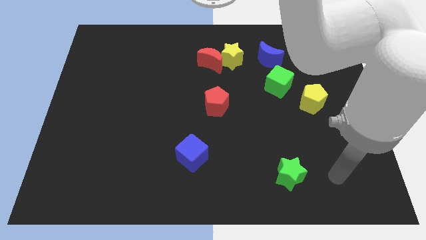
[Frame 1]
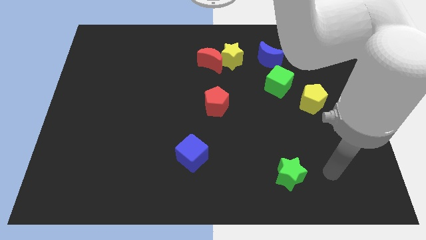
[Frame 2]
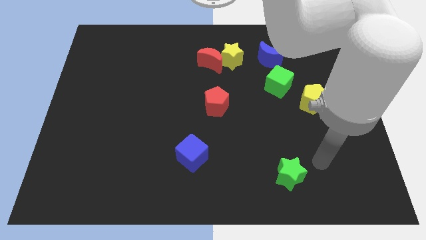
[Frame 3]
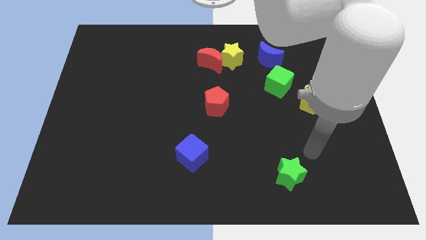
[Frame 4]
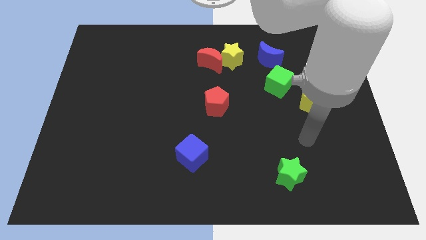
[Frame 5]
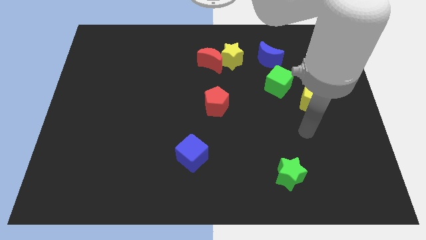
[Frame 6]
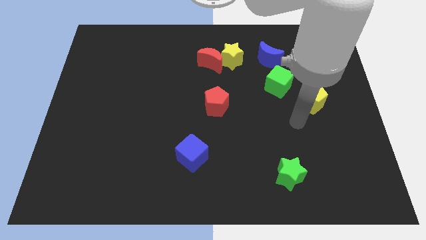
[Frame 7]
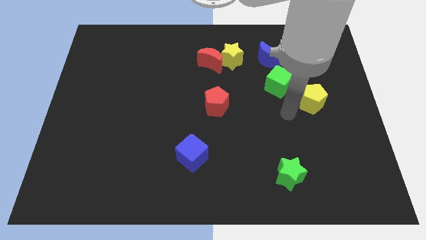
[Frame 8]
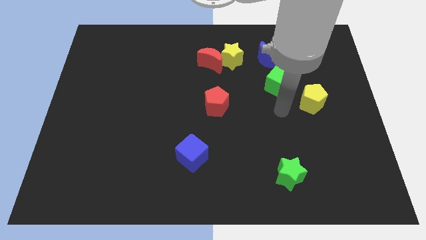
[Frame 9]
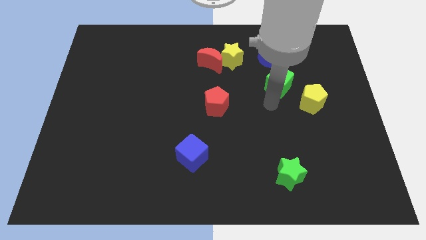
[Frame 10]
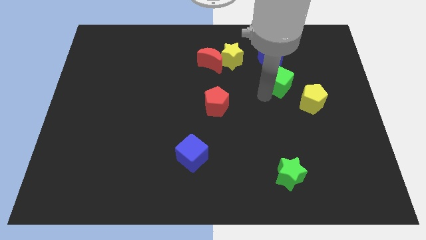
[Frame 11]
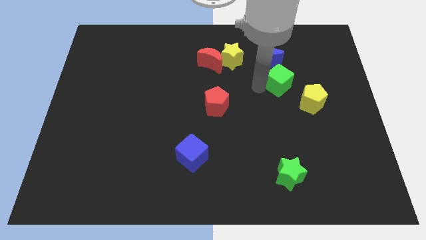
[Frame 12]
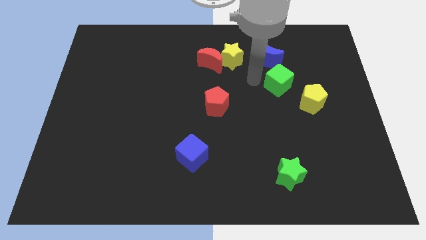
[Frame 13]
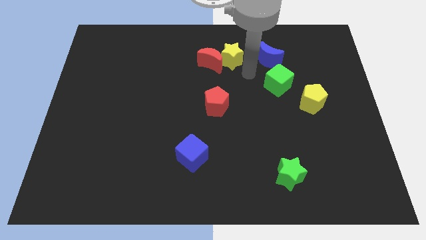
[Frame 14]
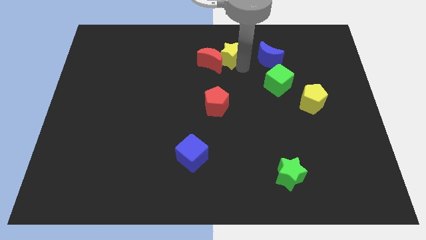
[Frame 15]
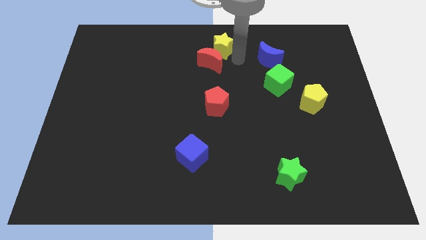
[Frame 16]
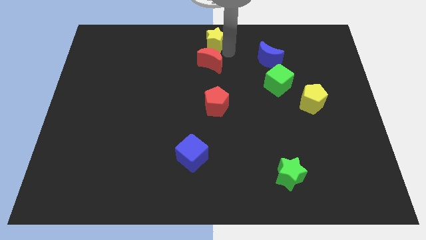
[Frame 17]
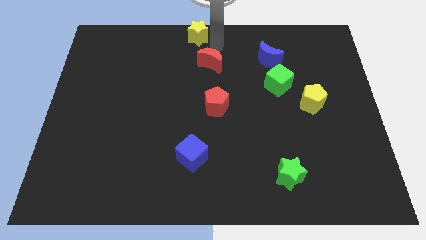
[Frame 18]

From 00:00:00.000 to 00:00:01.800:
move the red moon away from the yellow star

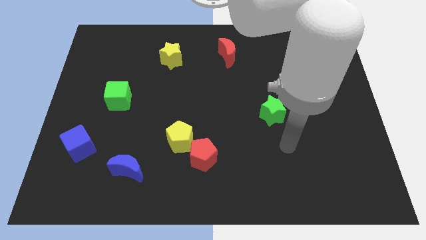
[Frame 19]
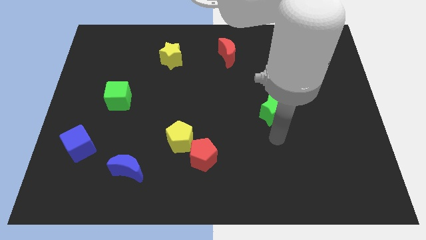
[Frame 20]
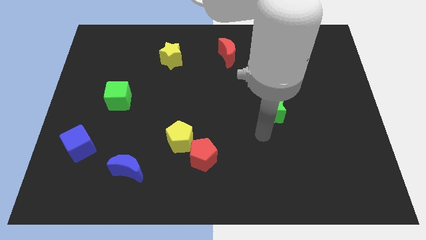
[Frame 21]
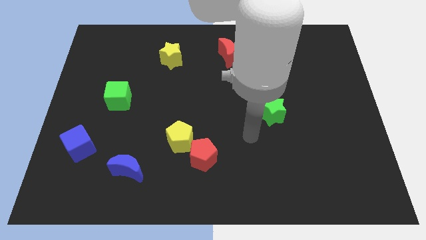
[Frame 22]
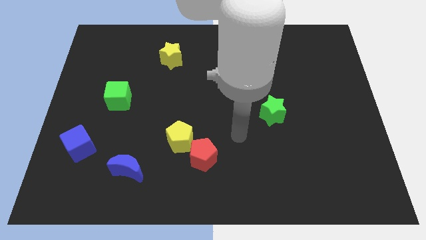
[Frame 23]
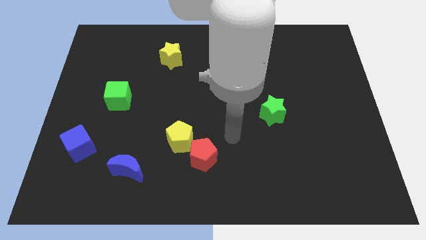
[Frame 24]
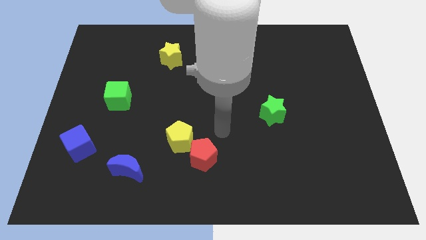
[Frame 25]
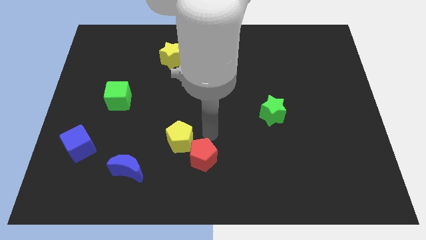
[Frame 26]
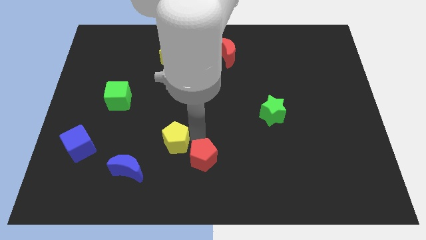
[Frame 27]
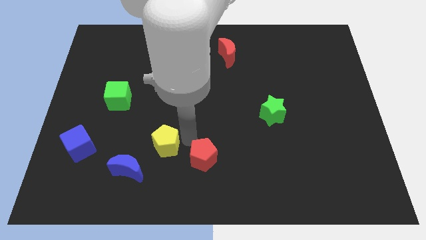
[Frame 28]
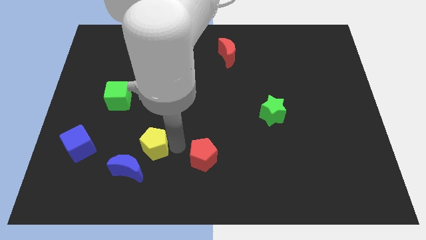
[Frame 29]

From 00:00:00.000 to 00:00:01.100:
pull the red pentagon apart from the yellow pentagon

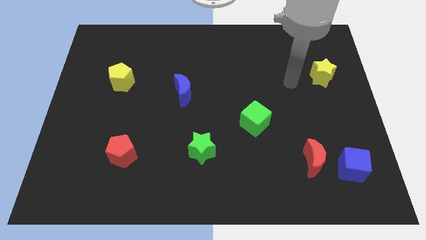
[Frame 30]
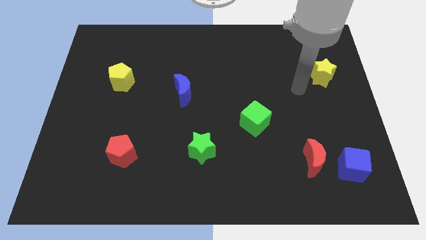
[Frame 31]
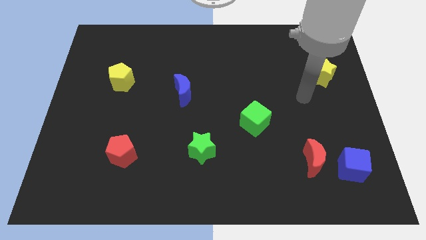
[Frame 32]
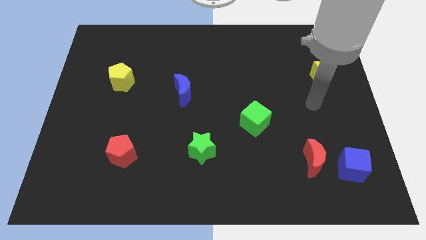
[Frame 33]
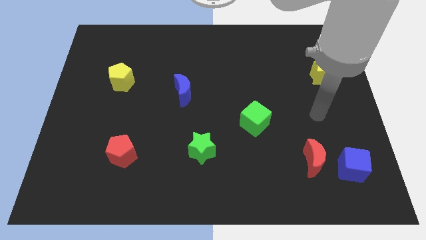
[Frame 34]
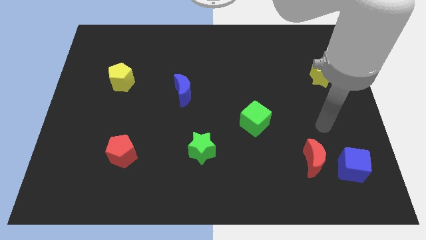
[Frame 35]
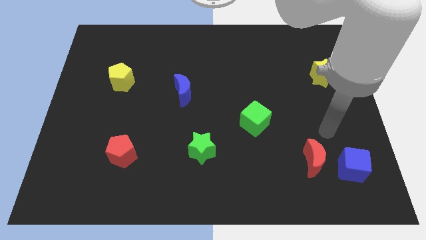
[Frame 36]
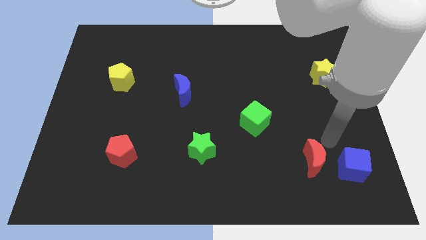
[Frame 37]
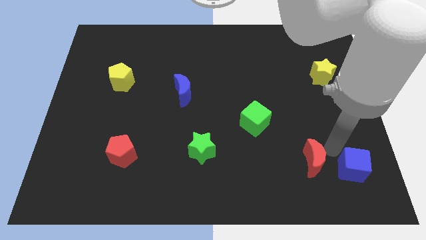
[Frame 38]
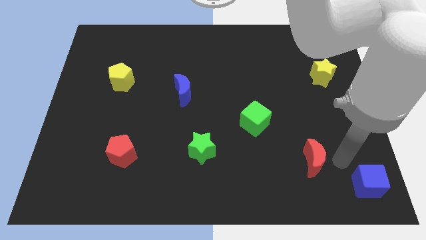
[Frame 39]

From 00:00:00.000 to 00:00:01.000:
pull the red moon apart from the blue cube

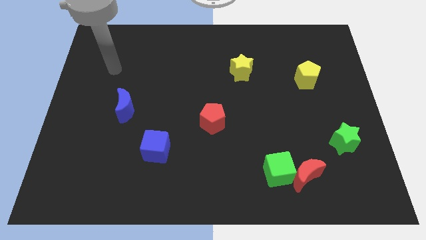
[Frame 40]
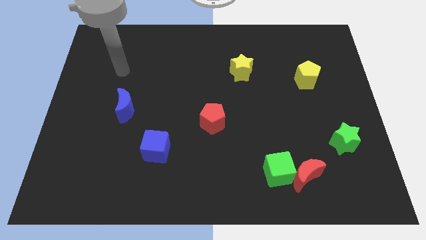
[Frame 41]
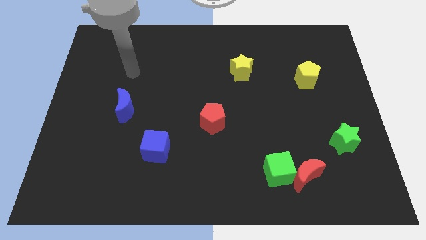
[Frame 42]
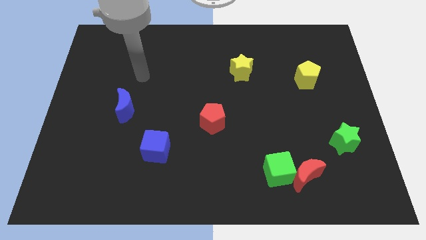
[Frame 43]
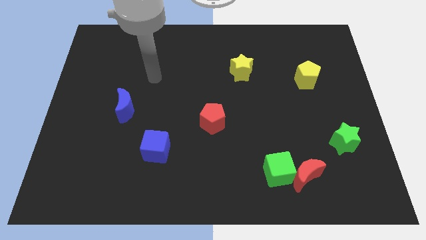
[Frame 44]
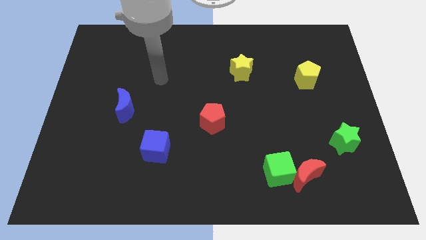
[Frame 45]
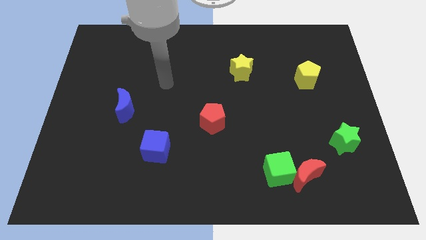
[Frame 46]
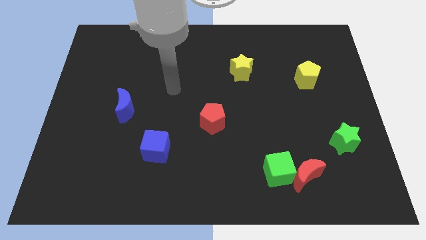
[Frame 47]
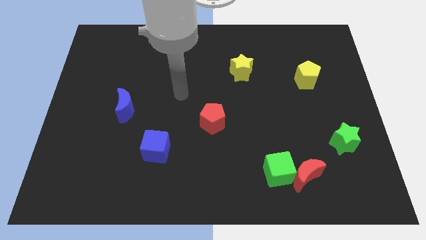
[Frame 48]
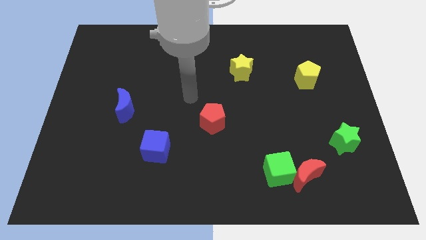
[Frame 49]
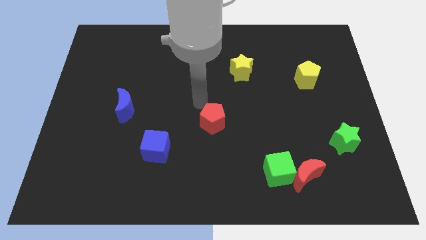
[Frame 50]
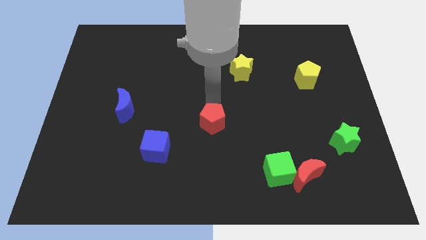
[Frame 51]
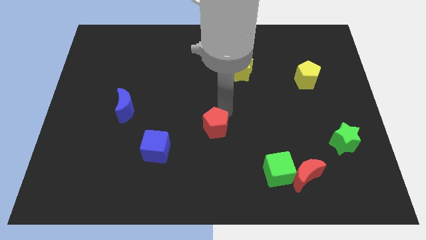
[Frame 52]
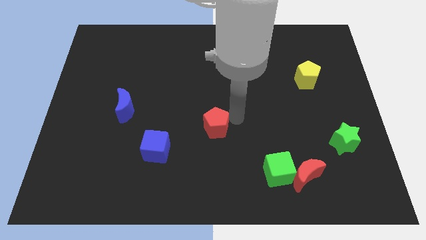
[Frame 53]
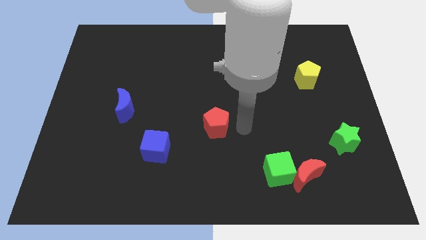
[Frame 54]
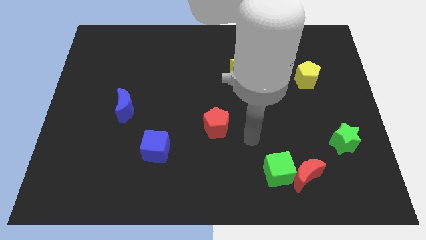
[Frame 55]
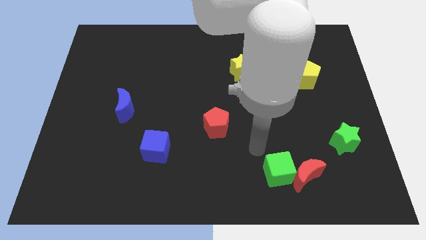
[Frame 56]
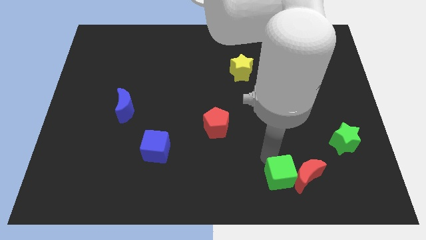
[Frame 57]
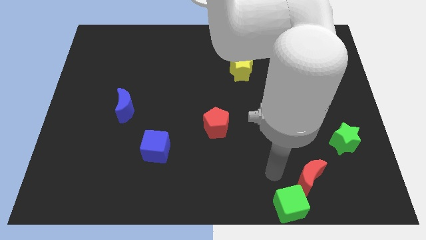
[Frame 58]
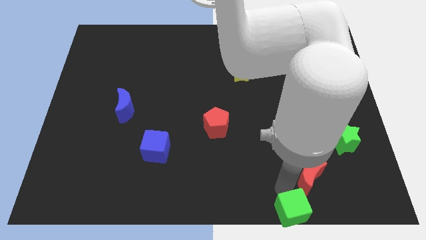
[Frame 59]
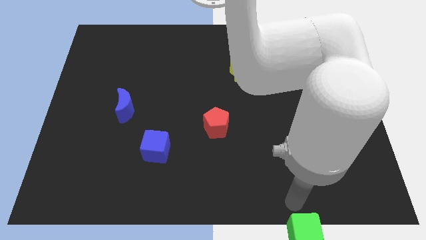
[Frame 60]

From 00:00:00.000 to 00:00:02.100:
separate the red moon from the green cube

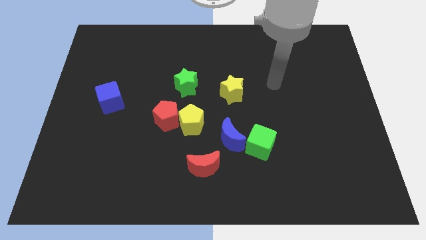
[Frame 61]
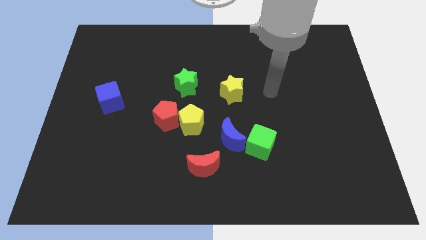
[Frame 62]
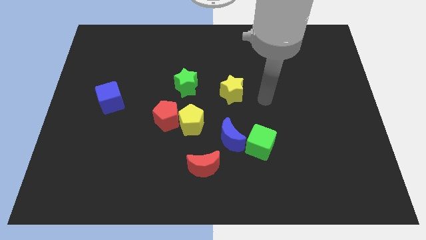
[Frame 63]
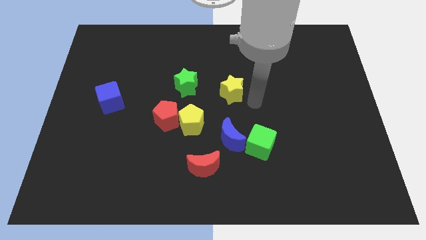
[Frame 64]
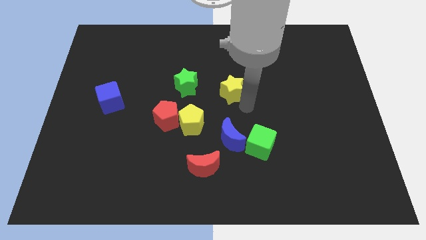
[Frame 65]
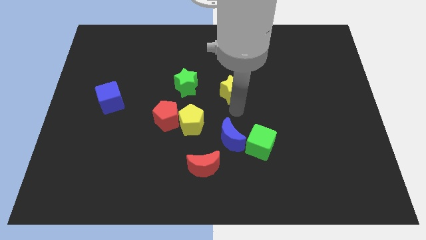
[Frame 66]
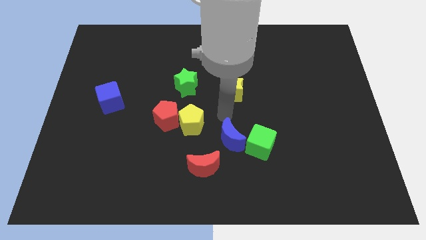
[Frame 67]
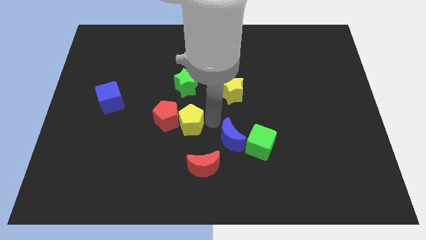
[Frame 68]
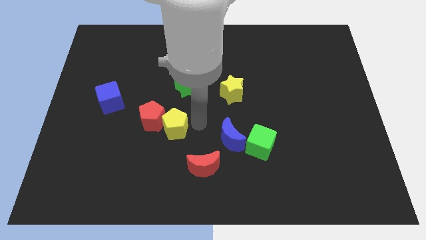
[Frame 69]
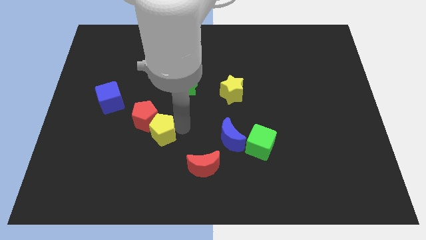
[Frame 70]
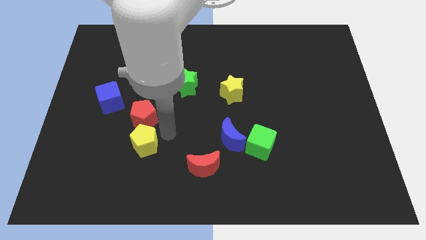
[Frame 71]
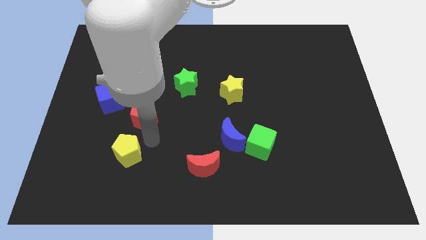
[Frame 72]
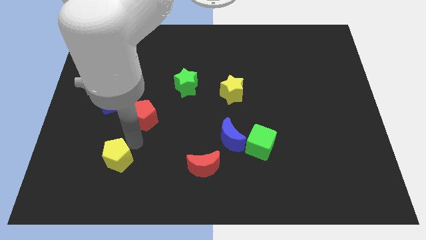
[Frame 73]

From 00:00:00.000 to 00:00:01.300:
move the red pentagon away from the yellow pentagon

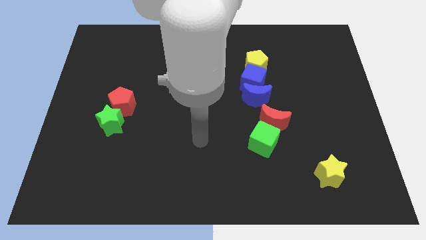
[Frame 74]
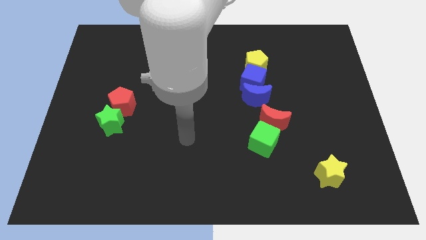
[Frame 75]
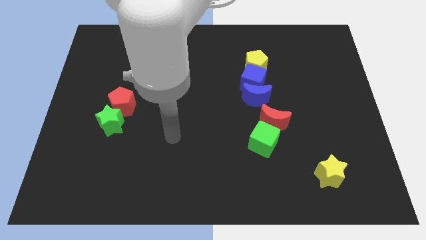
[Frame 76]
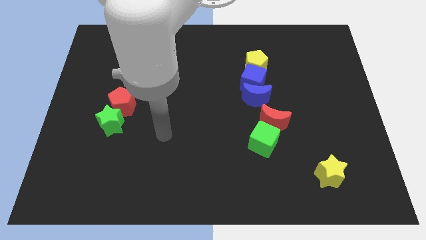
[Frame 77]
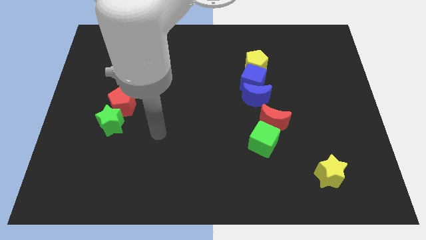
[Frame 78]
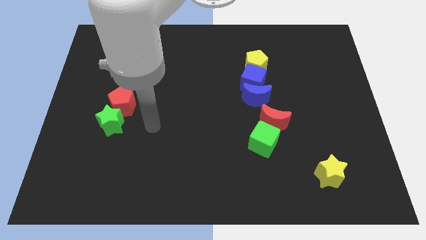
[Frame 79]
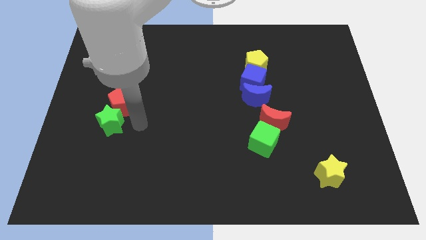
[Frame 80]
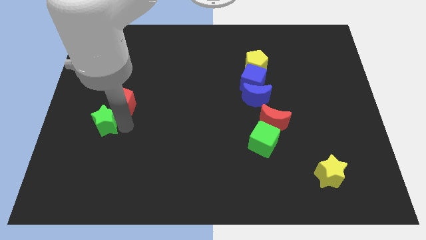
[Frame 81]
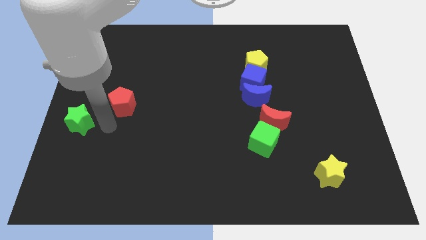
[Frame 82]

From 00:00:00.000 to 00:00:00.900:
move the red pentagon away from the green star

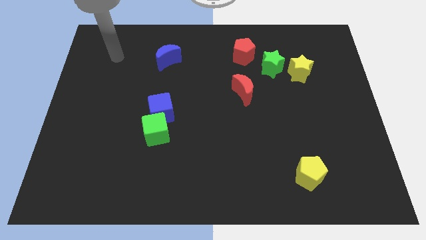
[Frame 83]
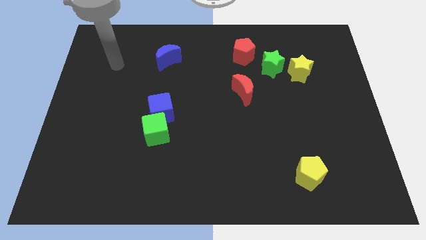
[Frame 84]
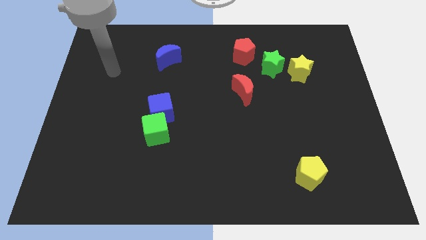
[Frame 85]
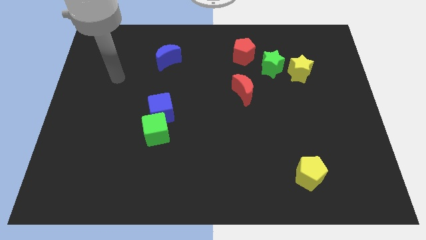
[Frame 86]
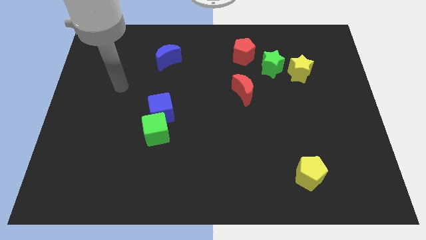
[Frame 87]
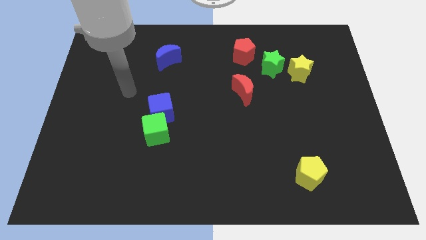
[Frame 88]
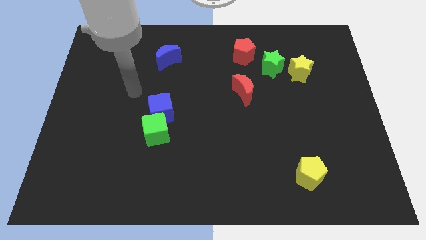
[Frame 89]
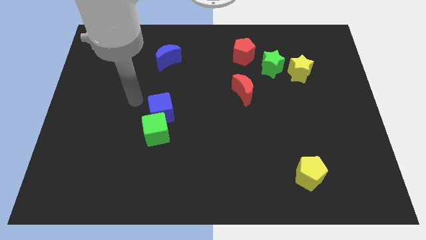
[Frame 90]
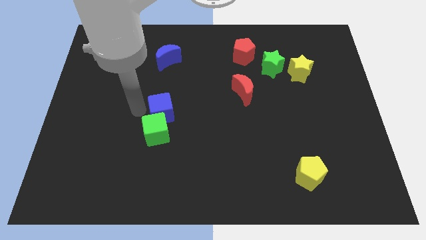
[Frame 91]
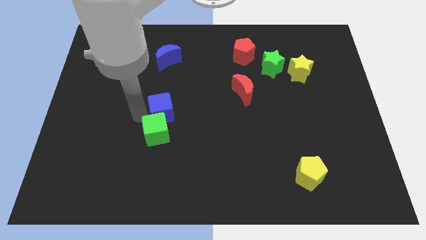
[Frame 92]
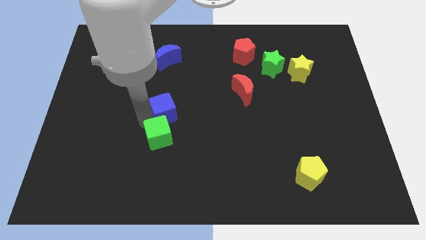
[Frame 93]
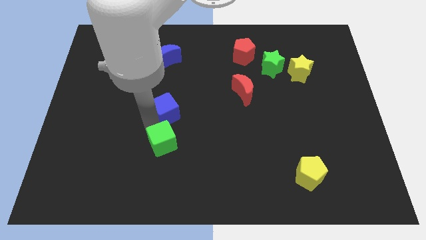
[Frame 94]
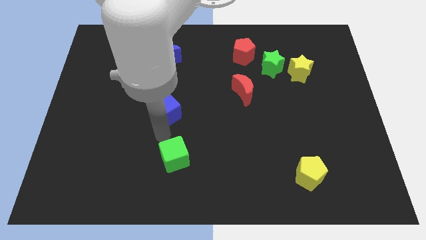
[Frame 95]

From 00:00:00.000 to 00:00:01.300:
move the blue cube away from the green cube
